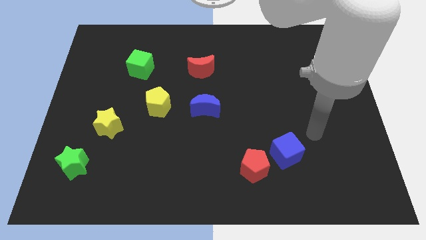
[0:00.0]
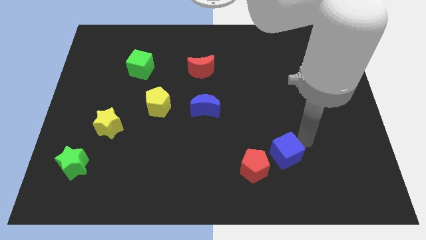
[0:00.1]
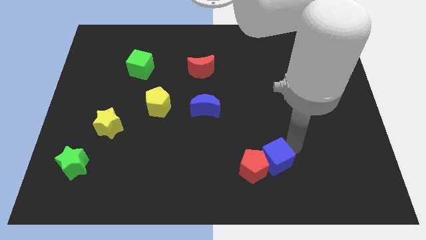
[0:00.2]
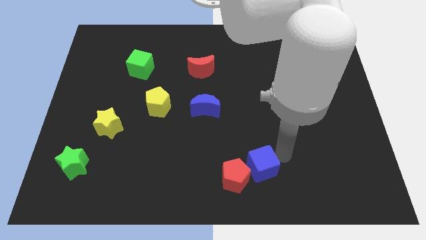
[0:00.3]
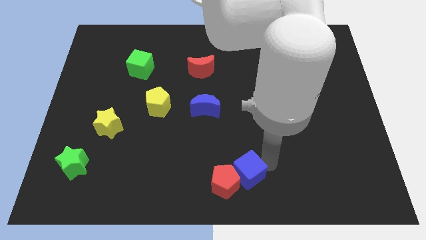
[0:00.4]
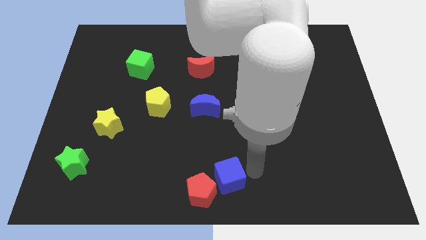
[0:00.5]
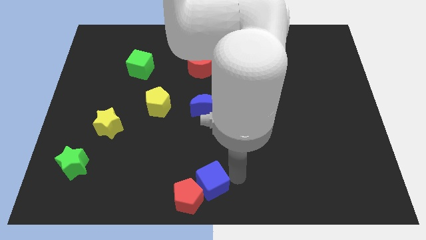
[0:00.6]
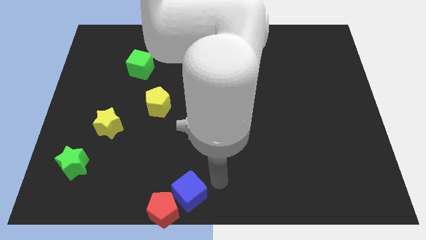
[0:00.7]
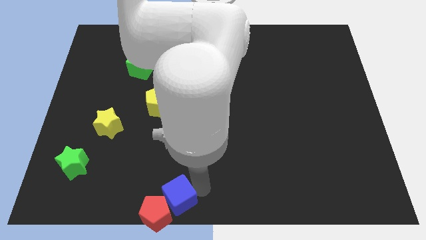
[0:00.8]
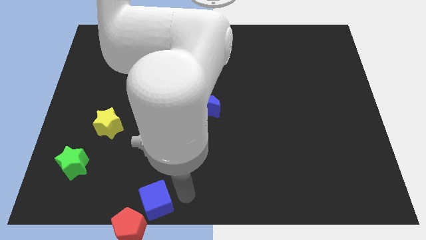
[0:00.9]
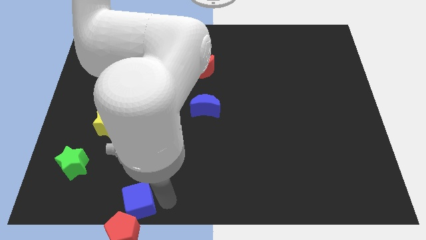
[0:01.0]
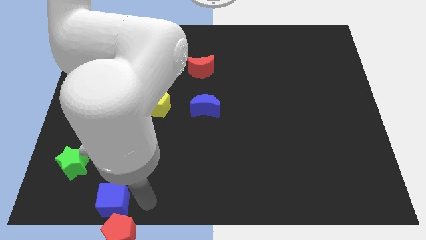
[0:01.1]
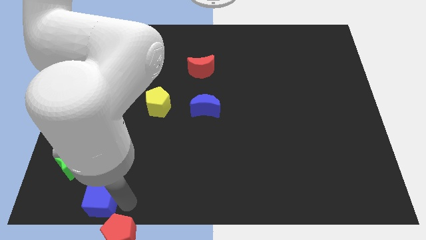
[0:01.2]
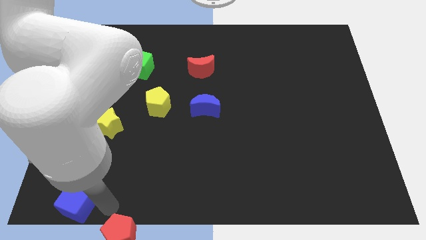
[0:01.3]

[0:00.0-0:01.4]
move the red pentagon away from the blue cube

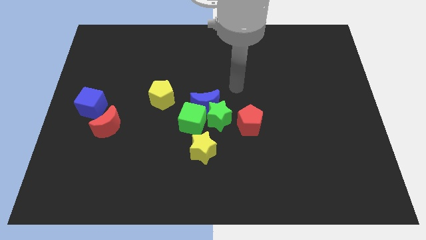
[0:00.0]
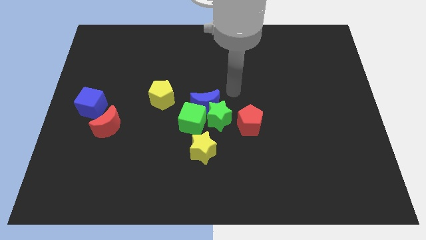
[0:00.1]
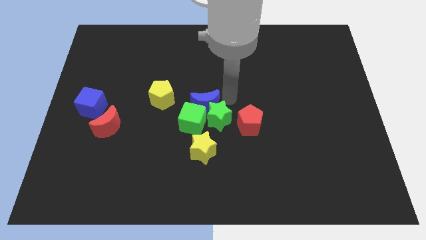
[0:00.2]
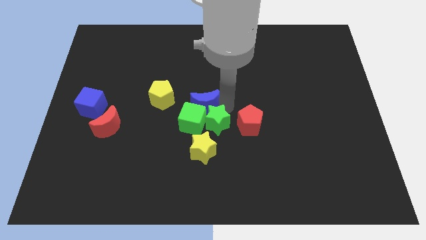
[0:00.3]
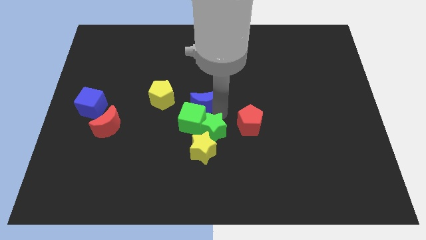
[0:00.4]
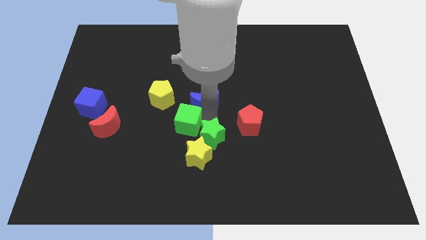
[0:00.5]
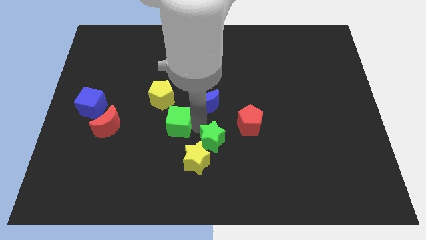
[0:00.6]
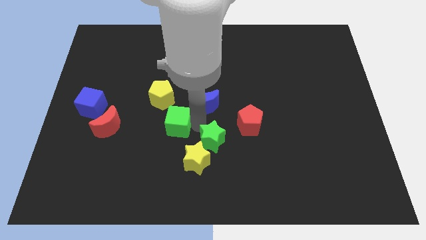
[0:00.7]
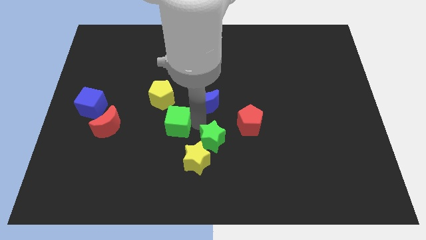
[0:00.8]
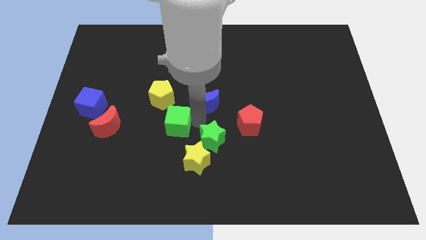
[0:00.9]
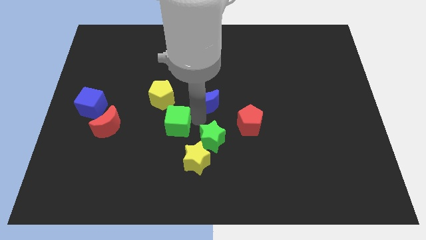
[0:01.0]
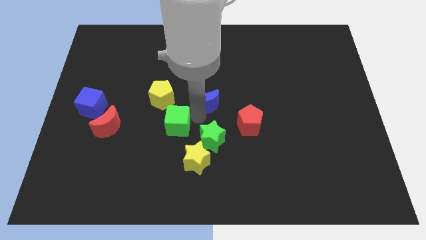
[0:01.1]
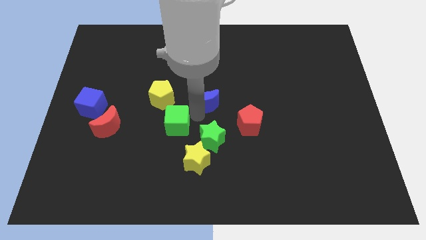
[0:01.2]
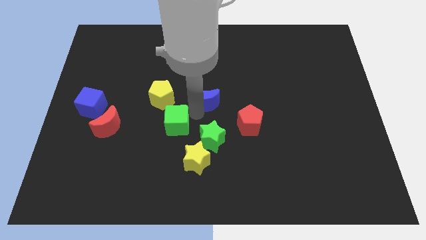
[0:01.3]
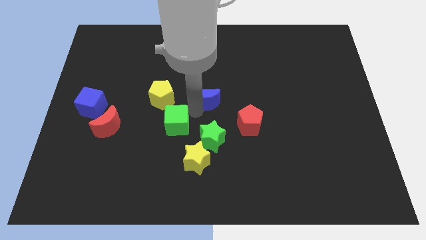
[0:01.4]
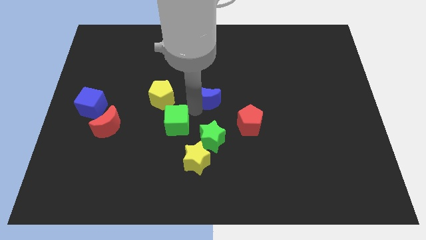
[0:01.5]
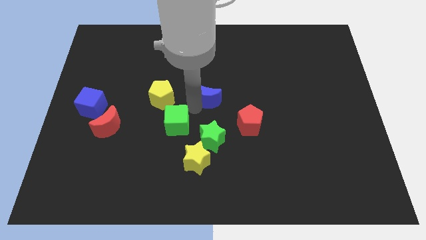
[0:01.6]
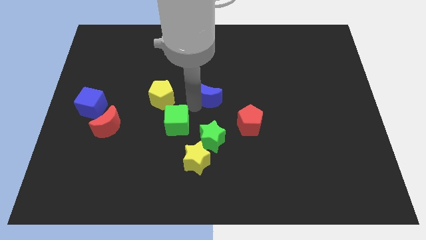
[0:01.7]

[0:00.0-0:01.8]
move the blue moon away from the green star and green cube

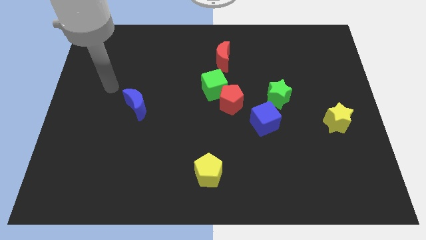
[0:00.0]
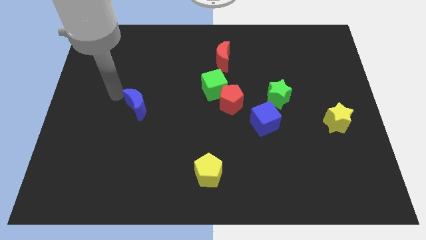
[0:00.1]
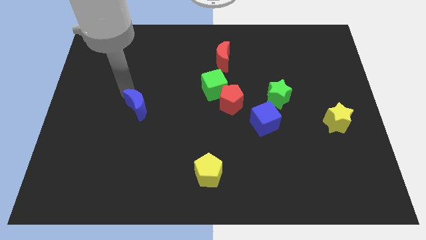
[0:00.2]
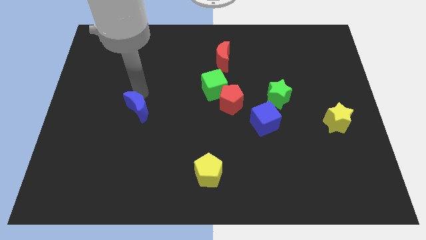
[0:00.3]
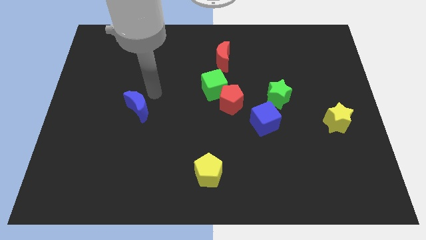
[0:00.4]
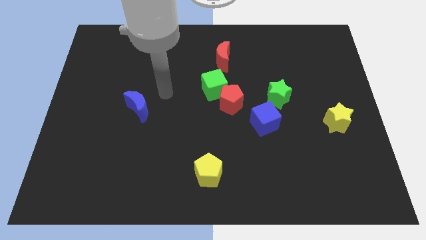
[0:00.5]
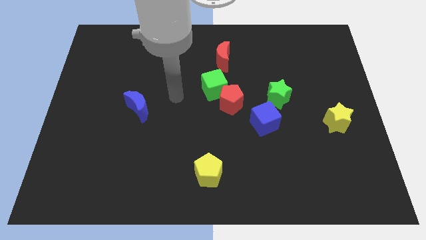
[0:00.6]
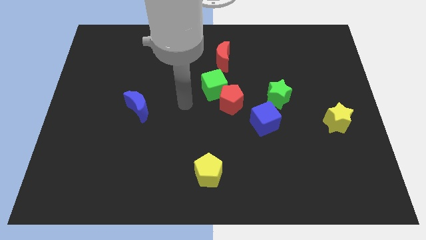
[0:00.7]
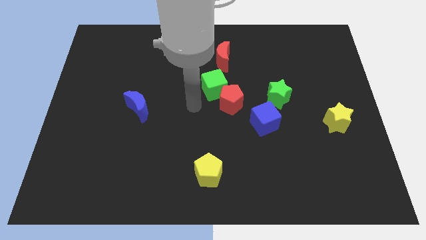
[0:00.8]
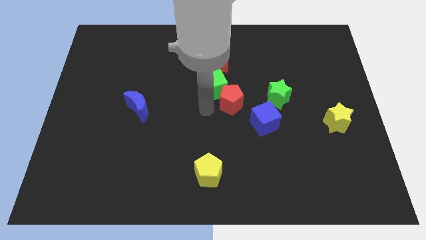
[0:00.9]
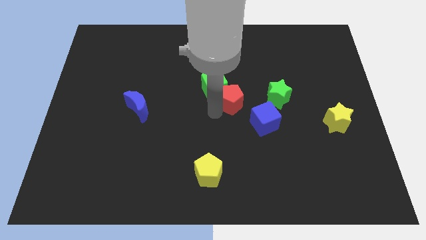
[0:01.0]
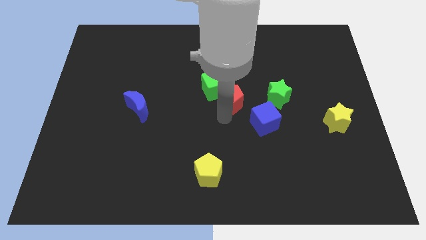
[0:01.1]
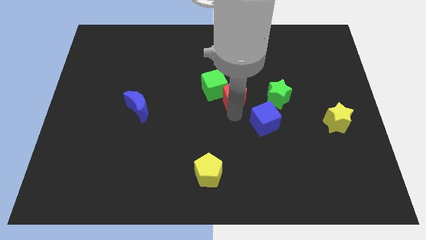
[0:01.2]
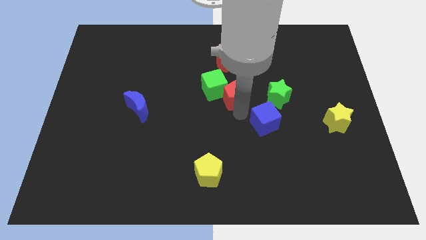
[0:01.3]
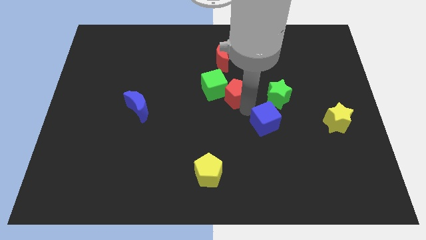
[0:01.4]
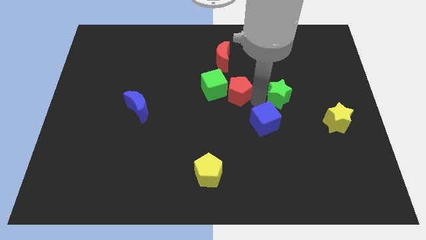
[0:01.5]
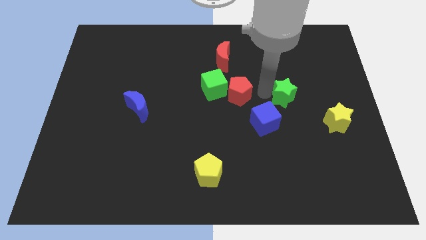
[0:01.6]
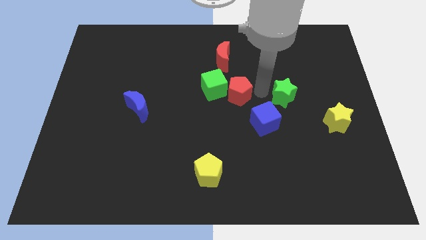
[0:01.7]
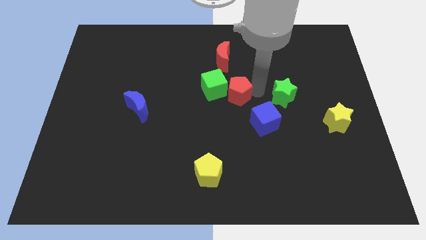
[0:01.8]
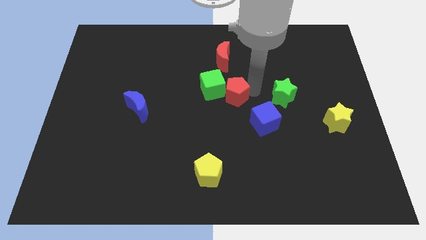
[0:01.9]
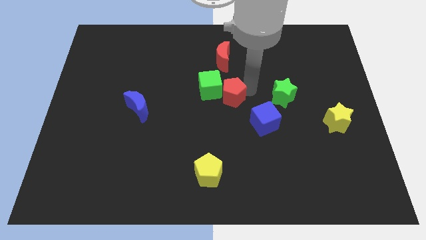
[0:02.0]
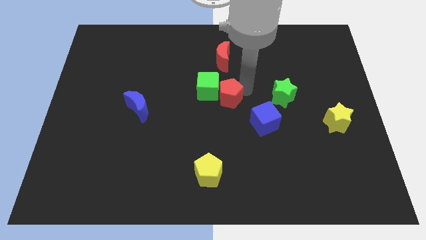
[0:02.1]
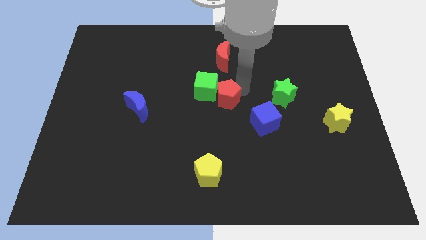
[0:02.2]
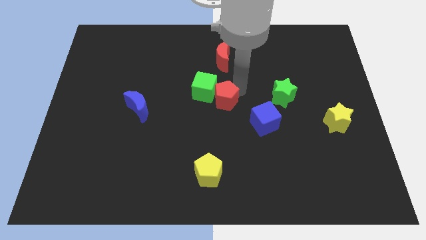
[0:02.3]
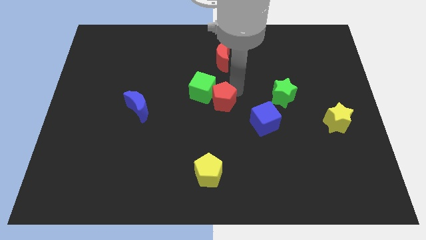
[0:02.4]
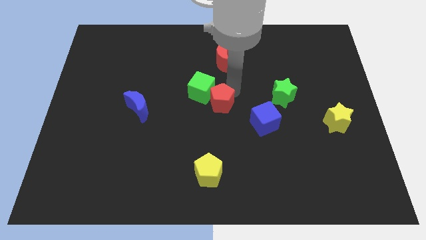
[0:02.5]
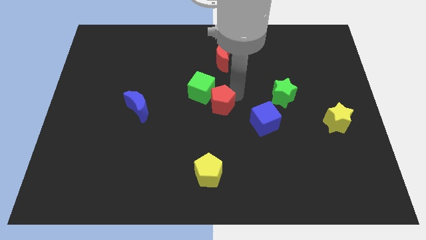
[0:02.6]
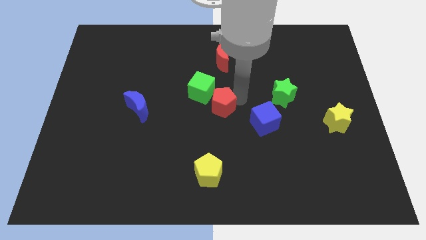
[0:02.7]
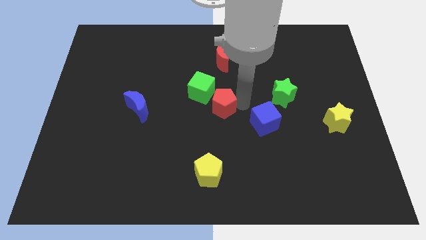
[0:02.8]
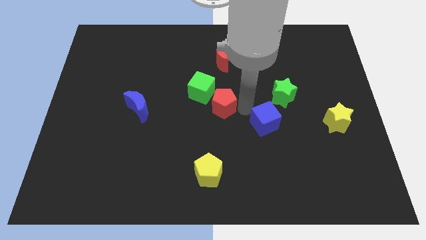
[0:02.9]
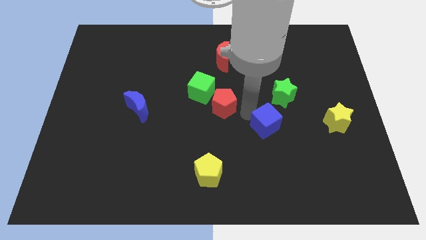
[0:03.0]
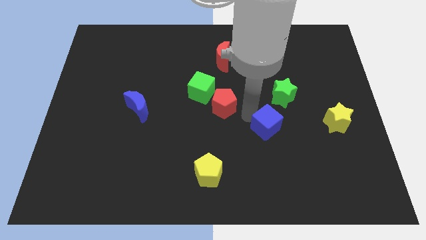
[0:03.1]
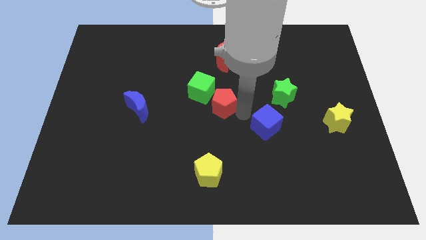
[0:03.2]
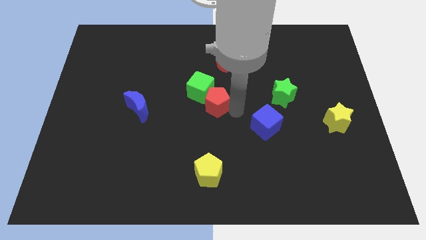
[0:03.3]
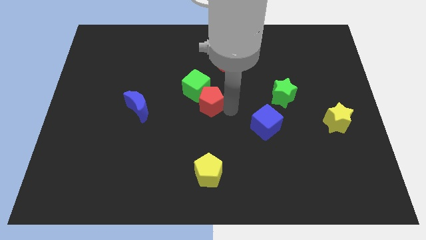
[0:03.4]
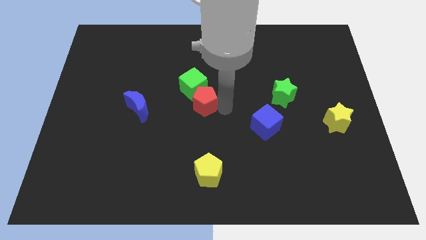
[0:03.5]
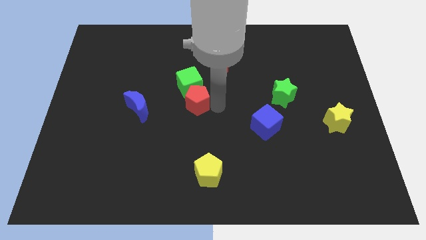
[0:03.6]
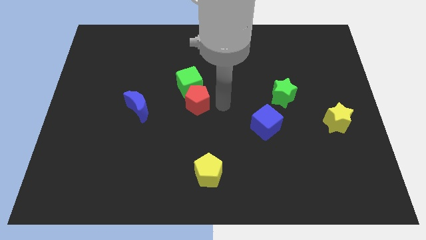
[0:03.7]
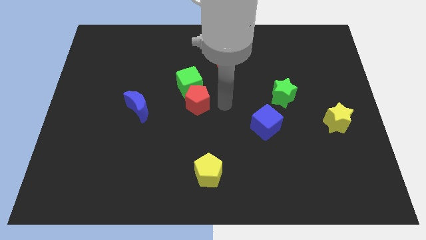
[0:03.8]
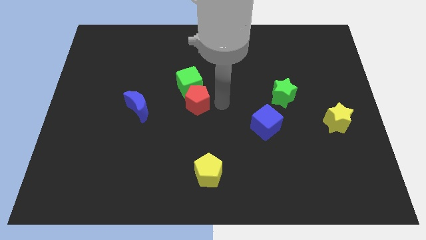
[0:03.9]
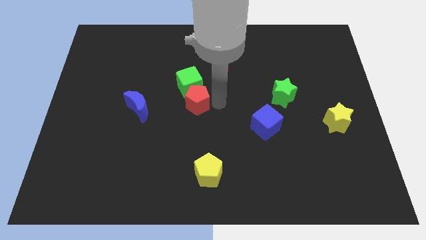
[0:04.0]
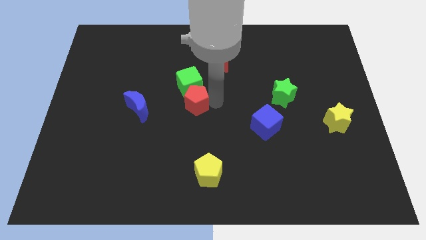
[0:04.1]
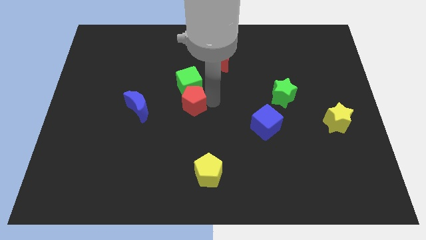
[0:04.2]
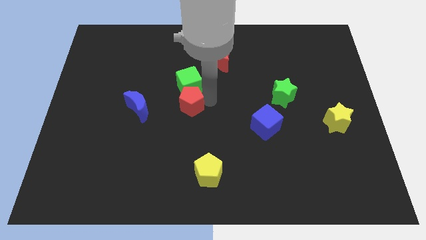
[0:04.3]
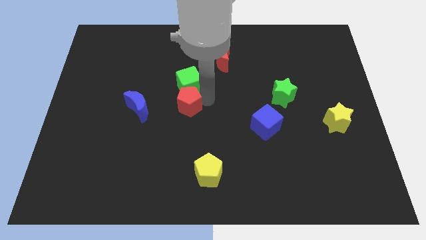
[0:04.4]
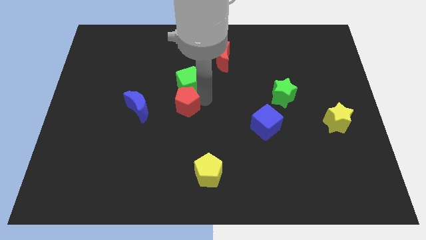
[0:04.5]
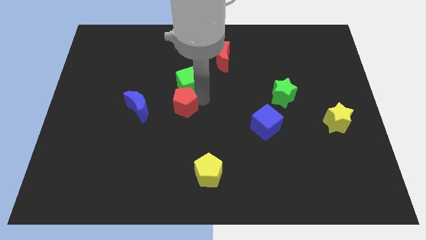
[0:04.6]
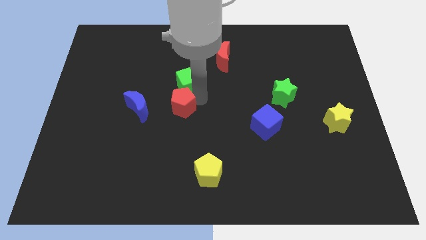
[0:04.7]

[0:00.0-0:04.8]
separate the red pentagon from the green cube and blue cube

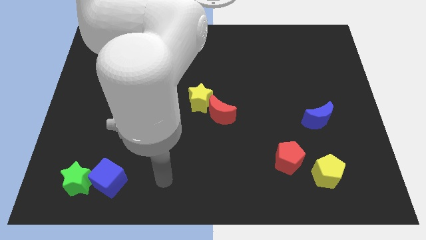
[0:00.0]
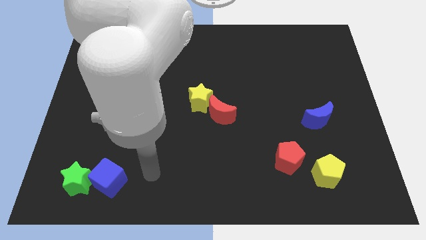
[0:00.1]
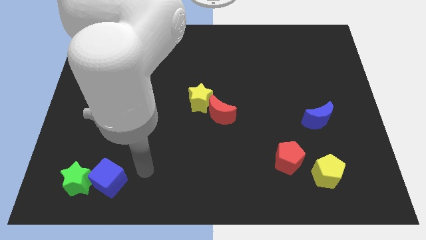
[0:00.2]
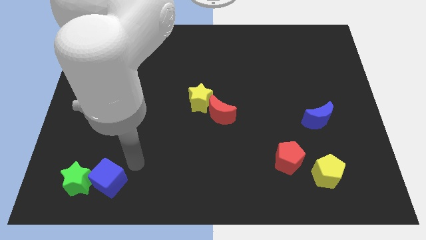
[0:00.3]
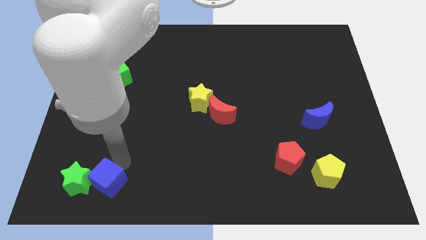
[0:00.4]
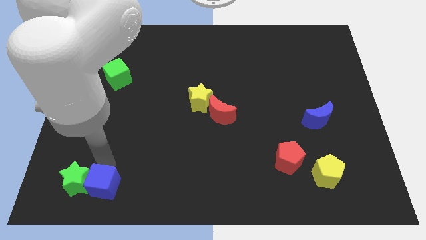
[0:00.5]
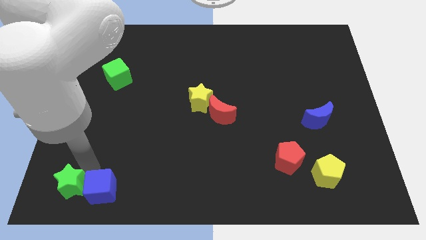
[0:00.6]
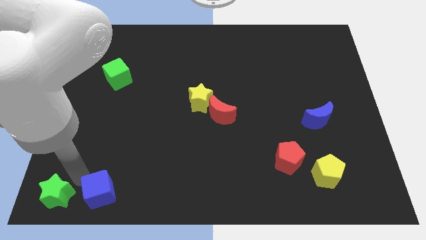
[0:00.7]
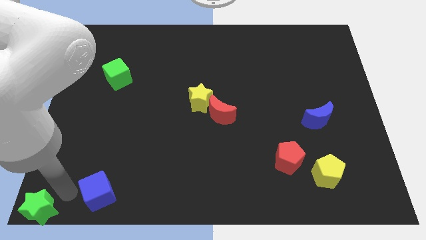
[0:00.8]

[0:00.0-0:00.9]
pull the blue cube apart from the green star

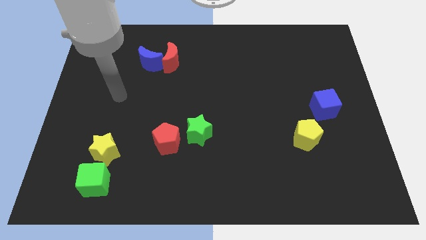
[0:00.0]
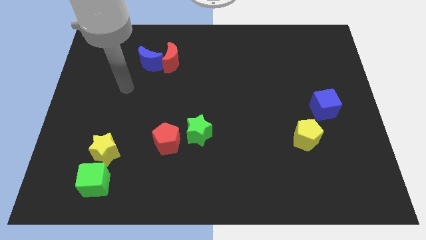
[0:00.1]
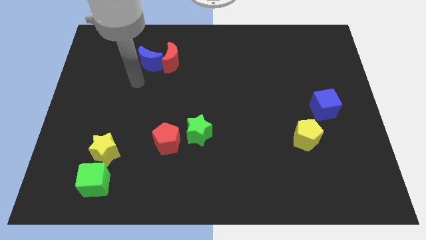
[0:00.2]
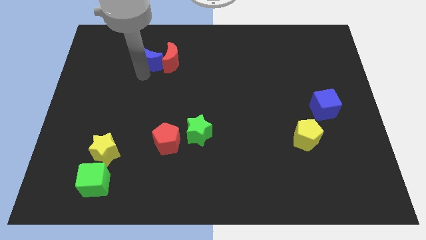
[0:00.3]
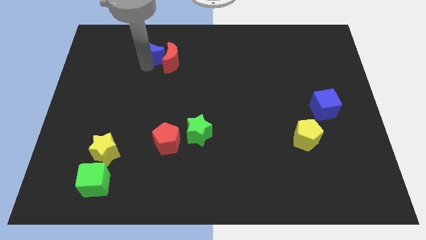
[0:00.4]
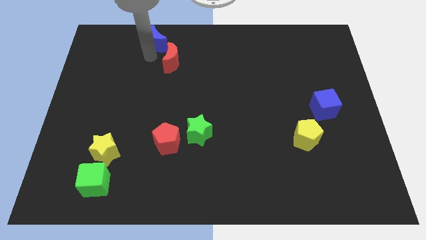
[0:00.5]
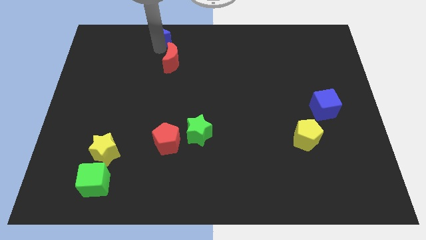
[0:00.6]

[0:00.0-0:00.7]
separate the red moon from the blue moon
